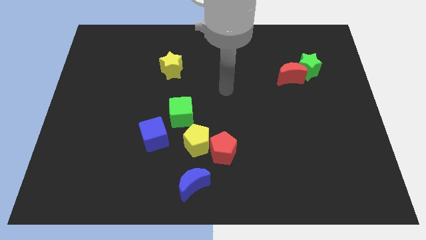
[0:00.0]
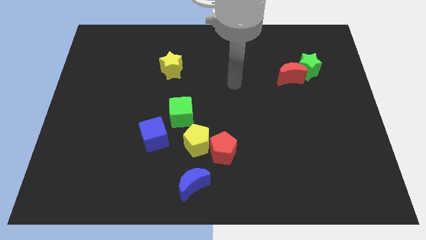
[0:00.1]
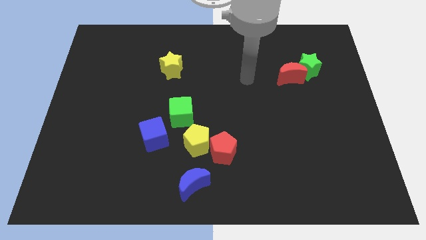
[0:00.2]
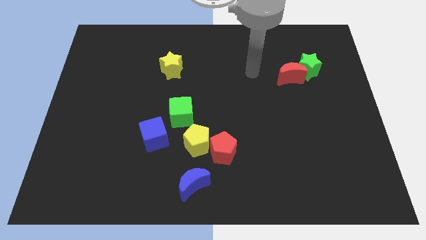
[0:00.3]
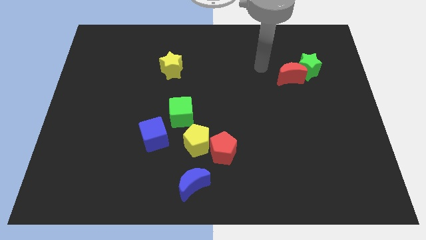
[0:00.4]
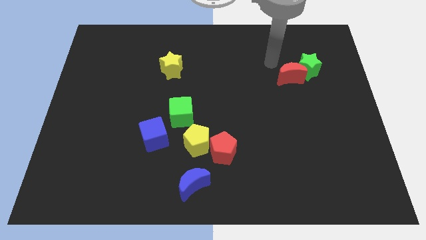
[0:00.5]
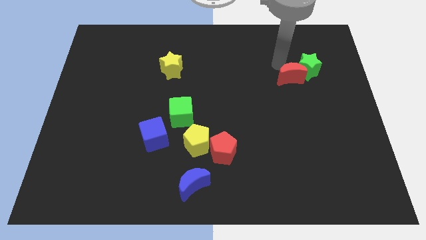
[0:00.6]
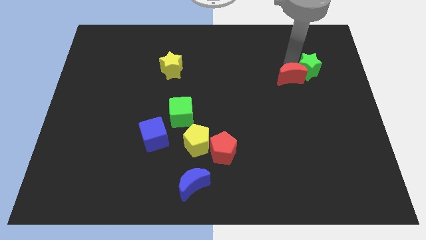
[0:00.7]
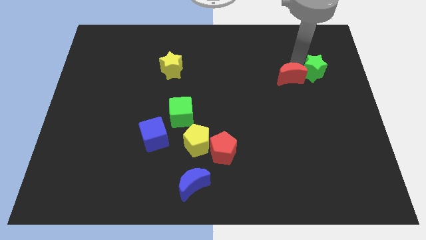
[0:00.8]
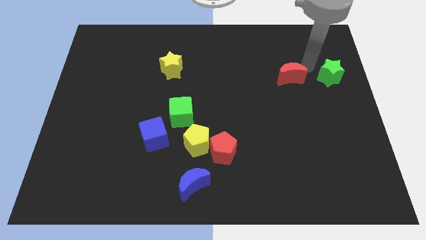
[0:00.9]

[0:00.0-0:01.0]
move the red moon away from the green star

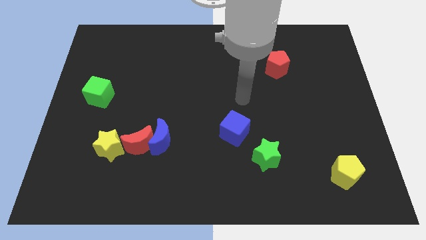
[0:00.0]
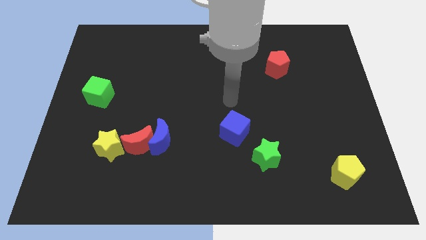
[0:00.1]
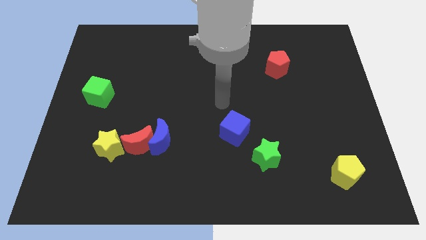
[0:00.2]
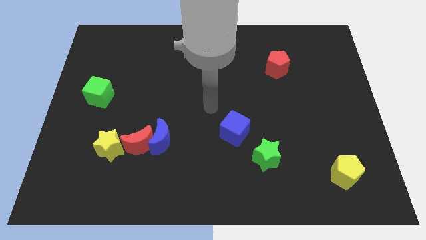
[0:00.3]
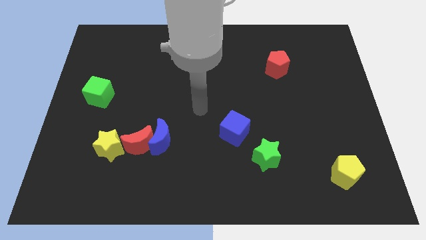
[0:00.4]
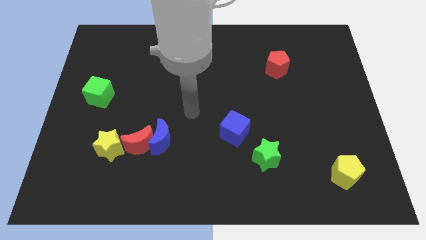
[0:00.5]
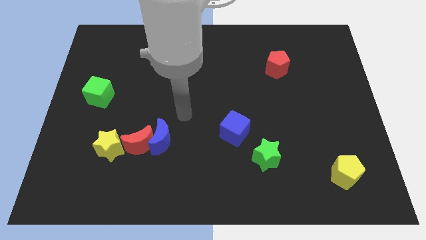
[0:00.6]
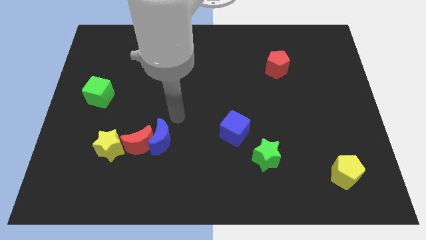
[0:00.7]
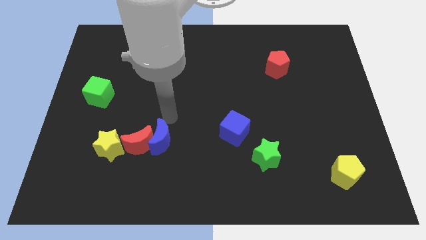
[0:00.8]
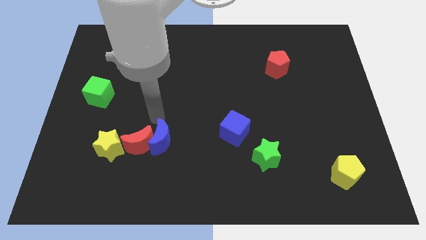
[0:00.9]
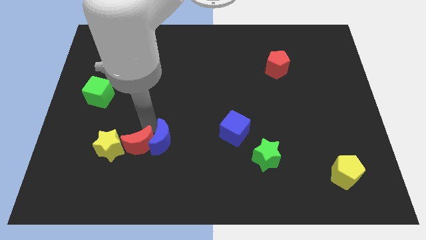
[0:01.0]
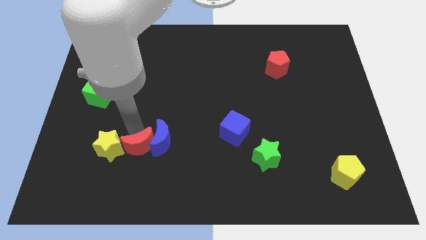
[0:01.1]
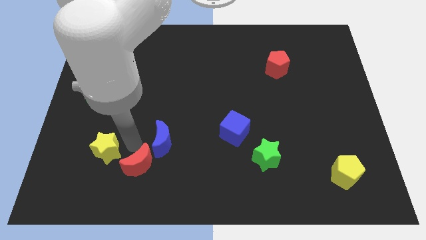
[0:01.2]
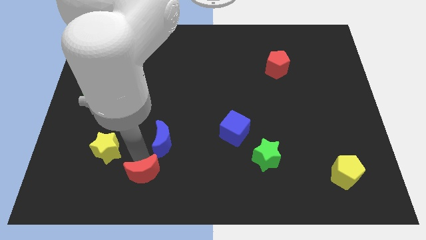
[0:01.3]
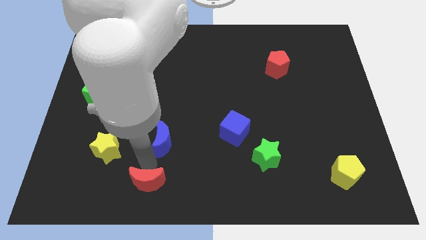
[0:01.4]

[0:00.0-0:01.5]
pull the blue moon apart from the red moon

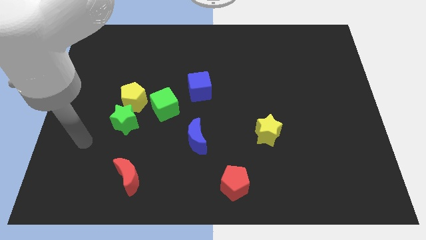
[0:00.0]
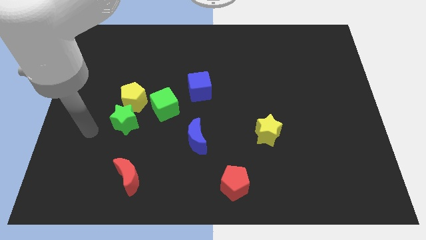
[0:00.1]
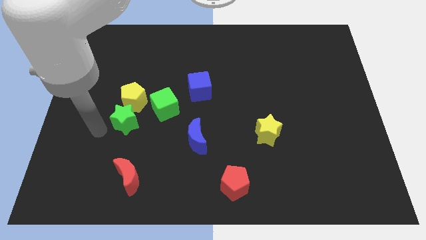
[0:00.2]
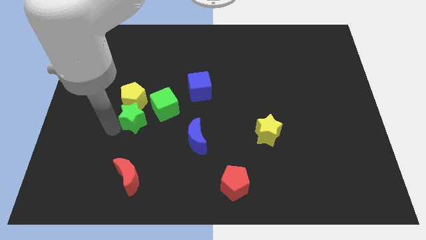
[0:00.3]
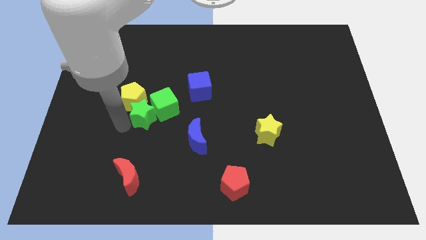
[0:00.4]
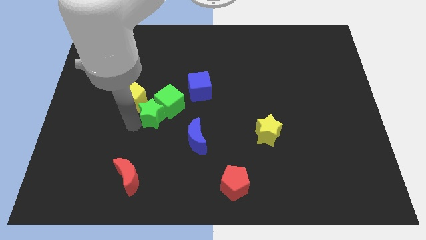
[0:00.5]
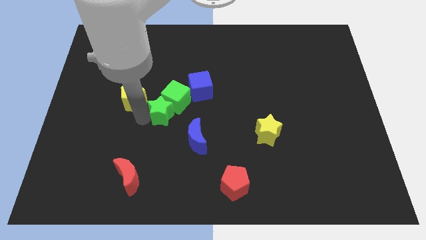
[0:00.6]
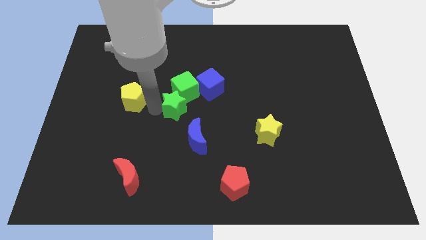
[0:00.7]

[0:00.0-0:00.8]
move the yellow pentagon away from the green star and green cube

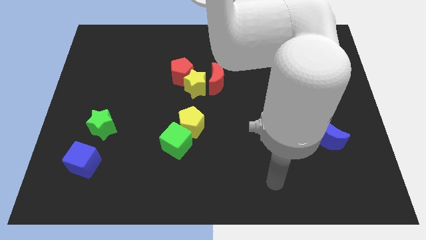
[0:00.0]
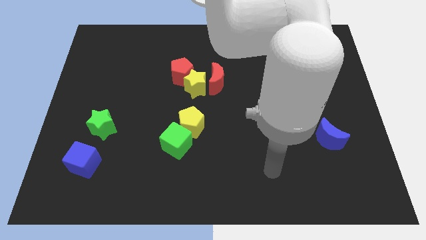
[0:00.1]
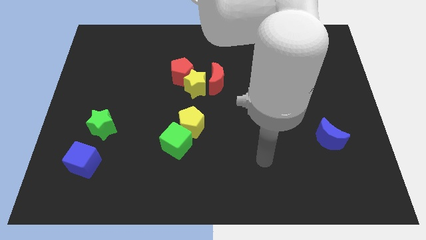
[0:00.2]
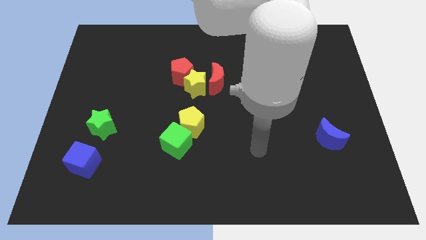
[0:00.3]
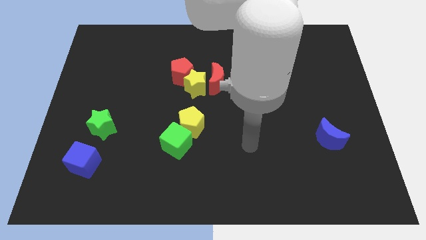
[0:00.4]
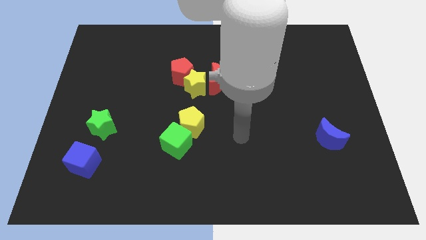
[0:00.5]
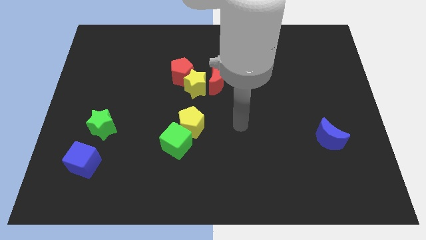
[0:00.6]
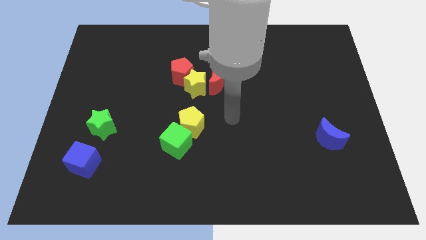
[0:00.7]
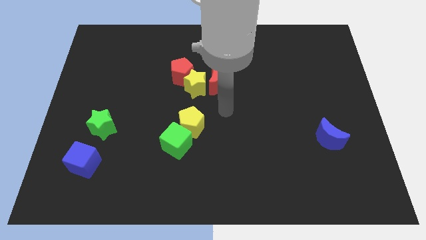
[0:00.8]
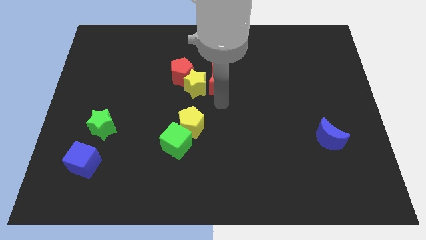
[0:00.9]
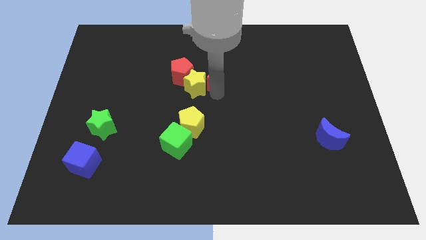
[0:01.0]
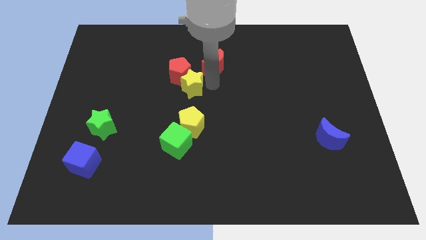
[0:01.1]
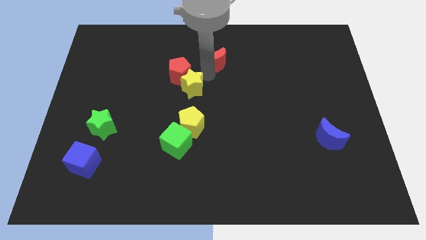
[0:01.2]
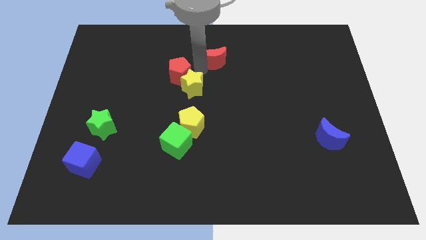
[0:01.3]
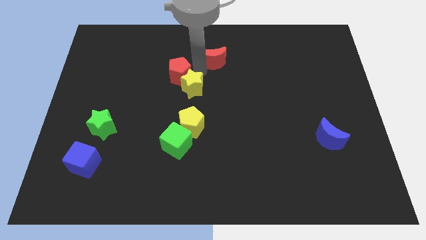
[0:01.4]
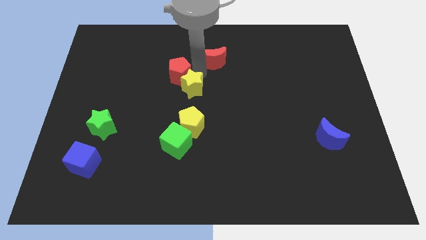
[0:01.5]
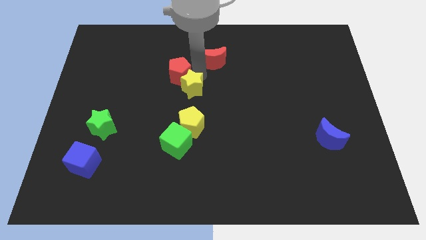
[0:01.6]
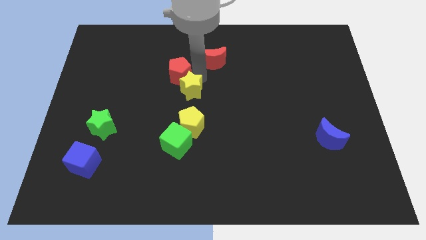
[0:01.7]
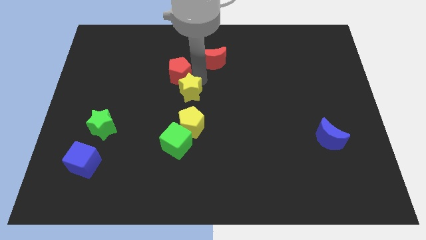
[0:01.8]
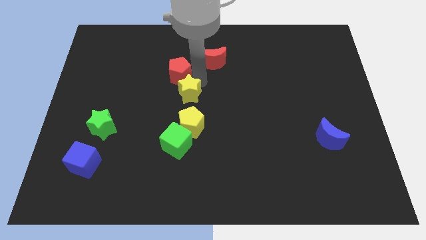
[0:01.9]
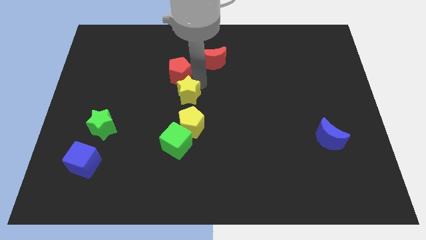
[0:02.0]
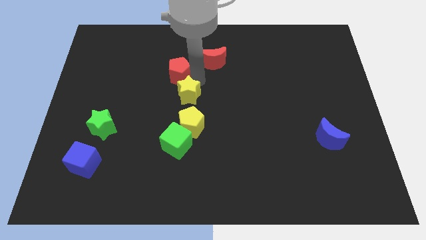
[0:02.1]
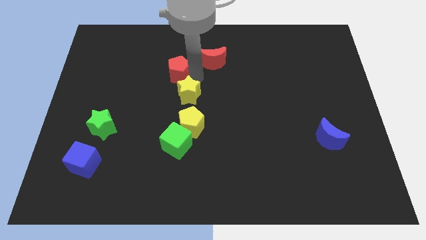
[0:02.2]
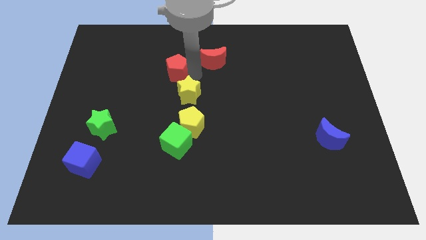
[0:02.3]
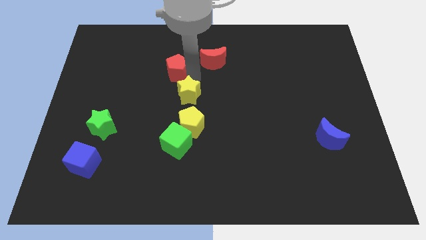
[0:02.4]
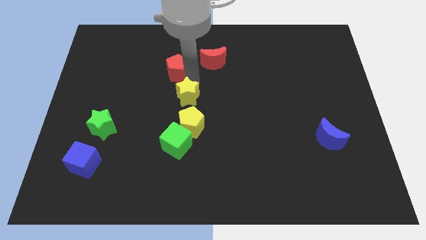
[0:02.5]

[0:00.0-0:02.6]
move the yellow star away from the red pentagon and red moon

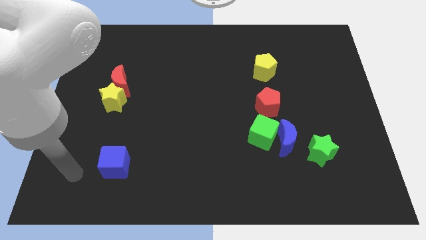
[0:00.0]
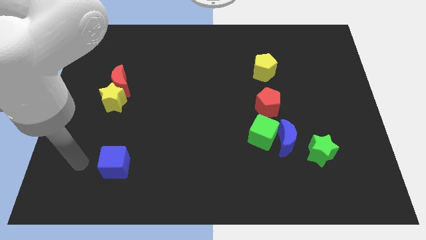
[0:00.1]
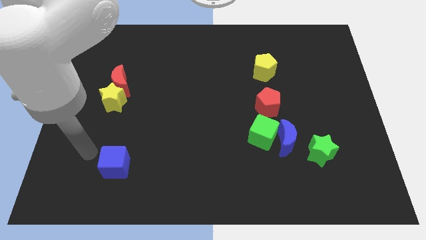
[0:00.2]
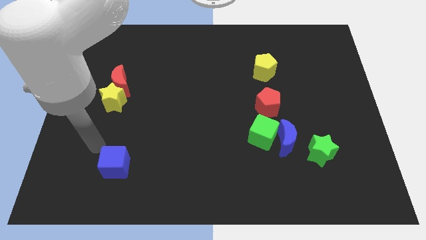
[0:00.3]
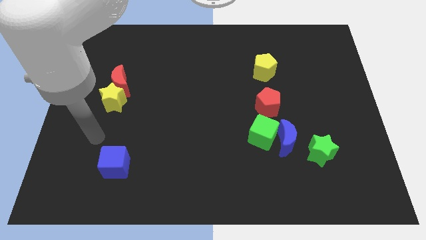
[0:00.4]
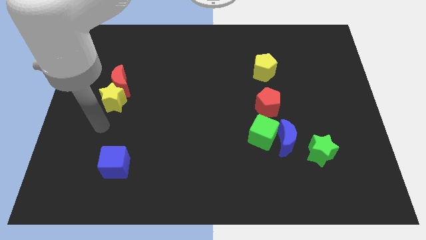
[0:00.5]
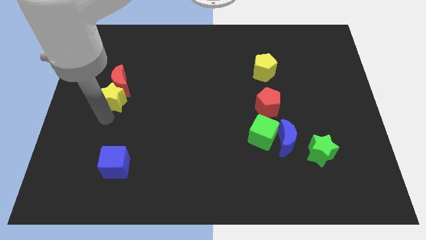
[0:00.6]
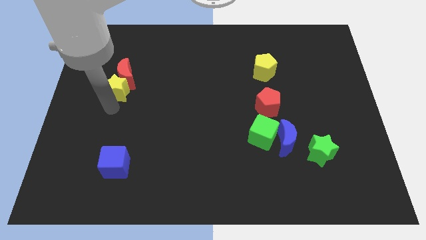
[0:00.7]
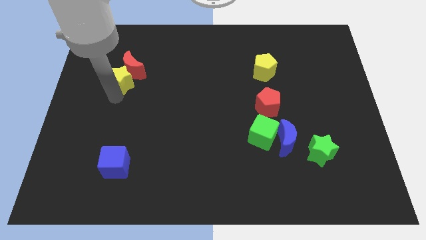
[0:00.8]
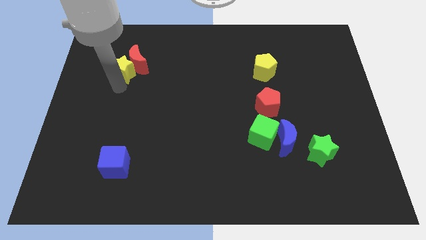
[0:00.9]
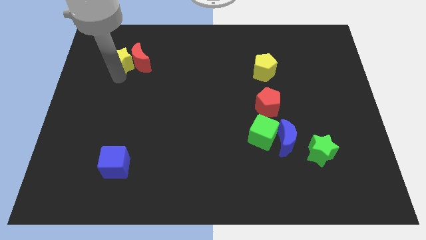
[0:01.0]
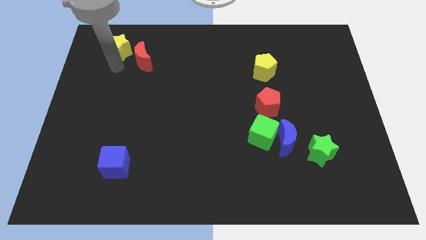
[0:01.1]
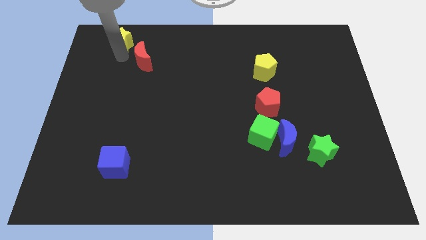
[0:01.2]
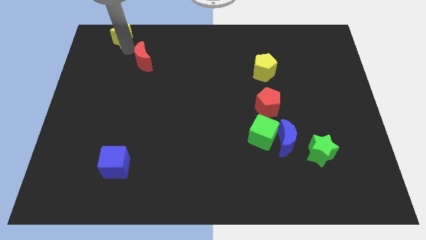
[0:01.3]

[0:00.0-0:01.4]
separate the red moon from the yellow star

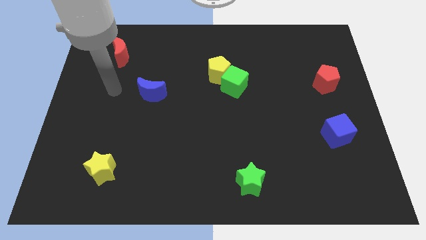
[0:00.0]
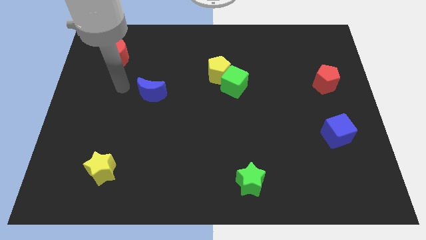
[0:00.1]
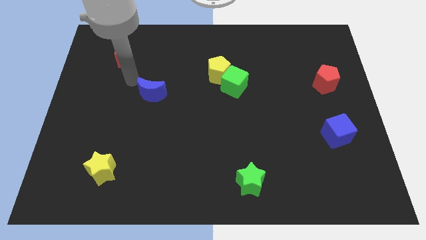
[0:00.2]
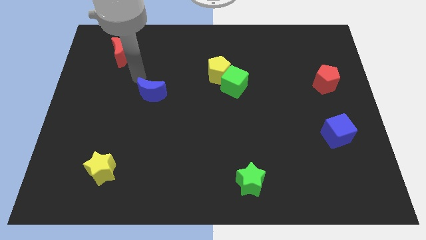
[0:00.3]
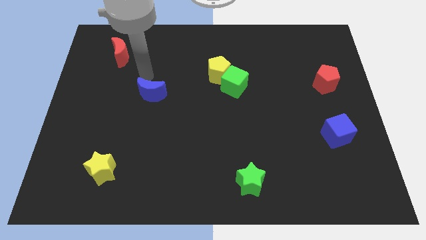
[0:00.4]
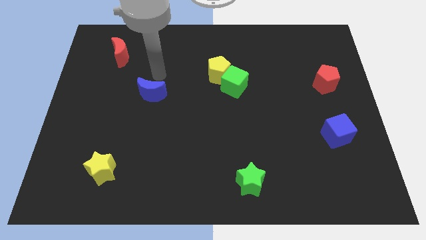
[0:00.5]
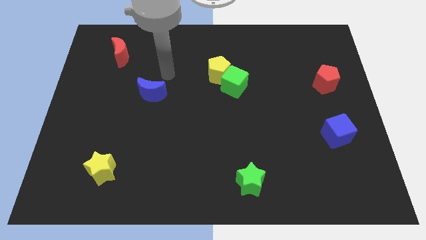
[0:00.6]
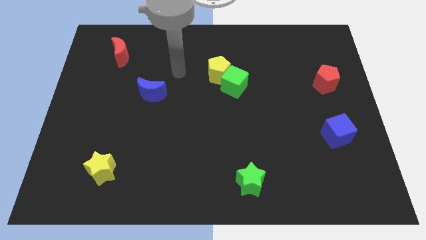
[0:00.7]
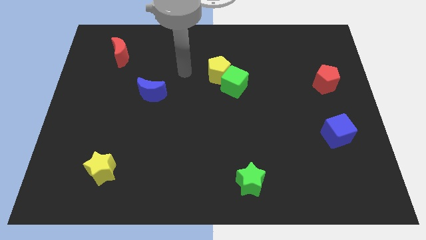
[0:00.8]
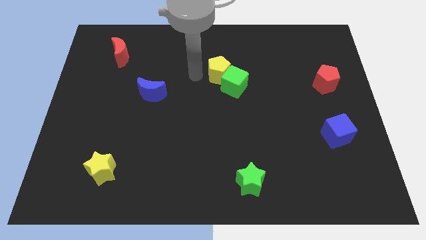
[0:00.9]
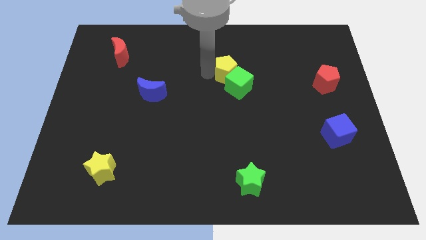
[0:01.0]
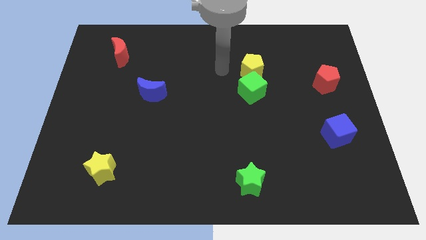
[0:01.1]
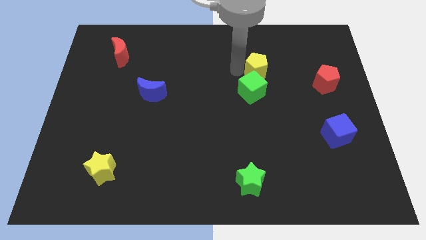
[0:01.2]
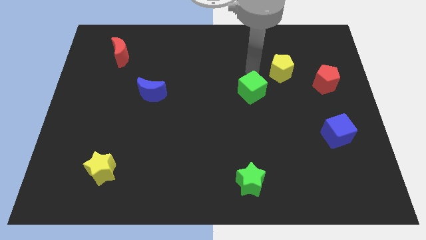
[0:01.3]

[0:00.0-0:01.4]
separate the green cube from the yellow pentagon

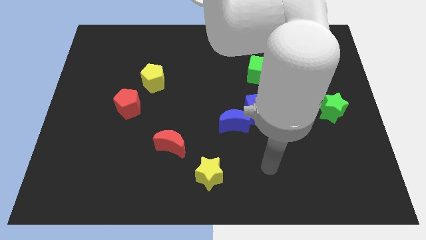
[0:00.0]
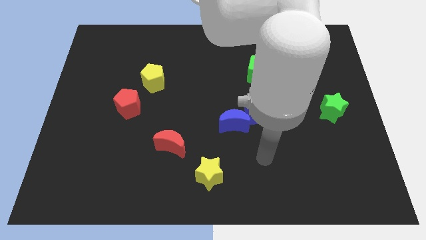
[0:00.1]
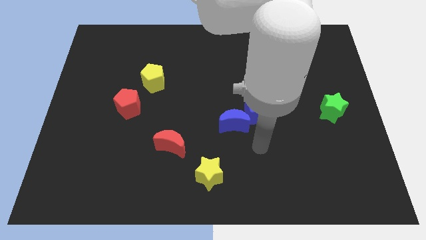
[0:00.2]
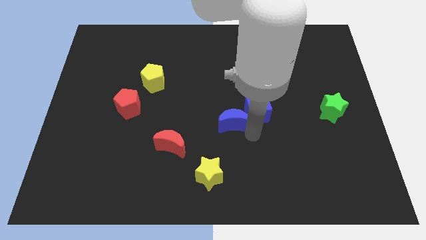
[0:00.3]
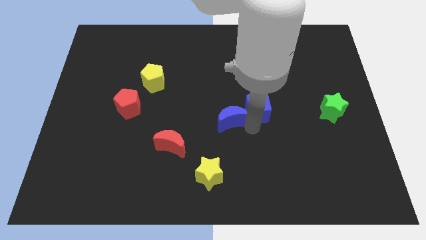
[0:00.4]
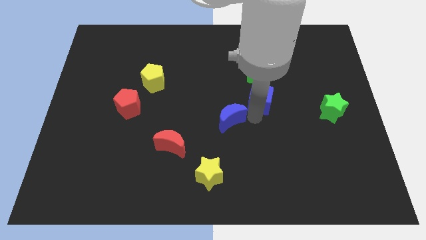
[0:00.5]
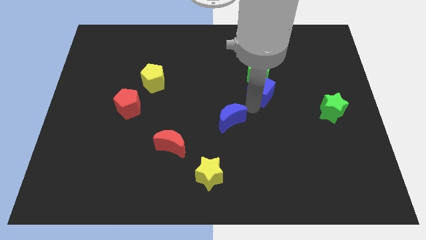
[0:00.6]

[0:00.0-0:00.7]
separate the blue moon from the blue cube
